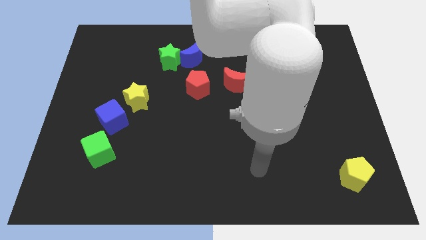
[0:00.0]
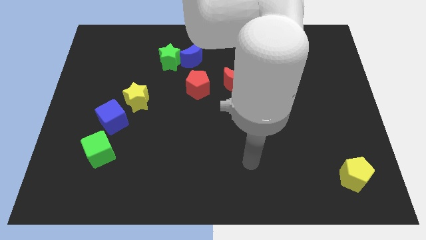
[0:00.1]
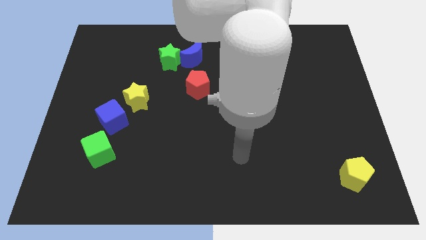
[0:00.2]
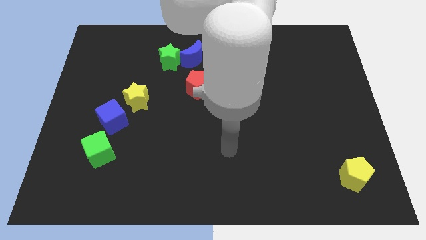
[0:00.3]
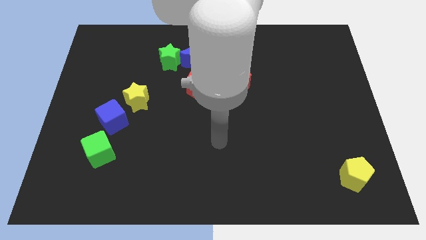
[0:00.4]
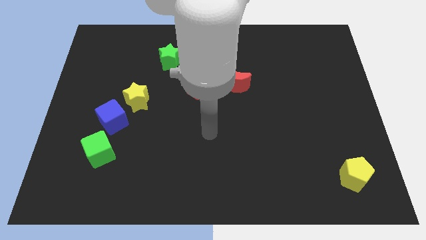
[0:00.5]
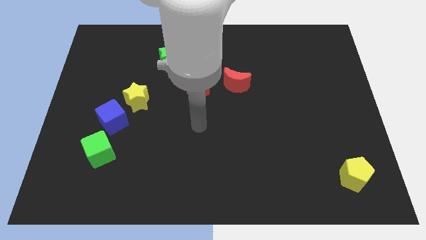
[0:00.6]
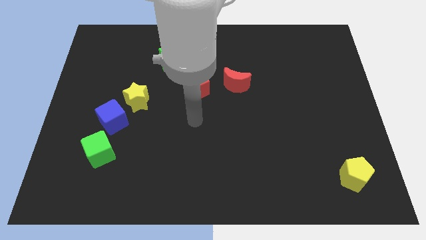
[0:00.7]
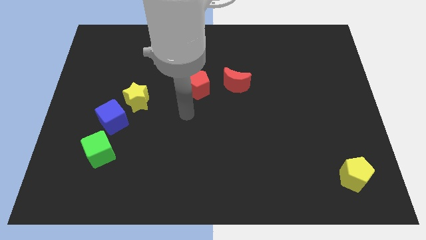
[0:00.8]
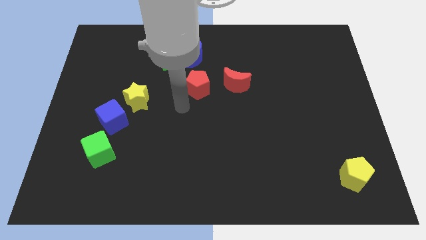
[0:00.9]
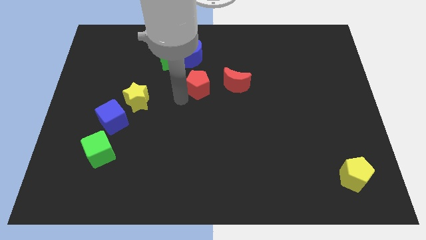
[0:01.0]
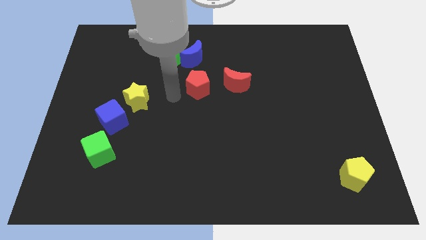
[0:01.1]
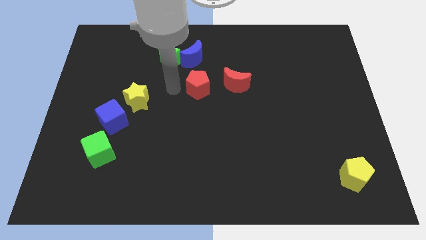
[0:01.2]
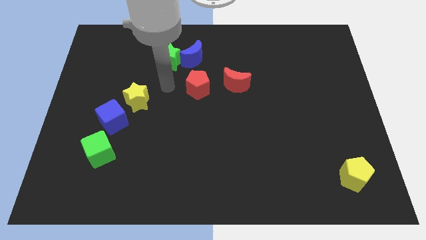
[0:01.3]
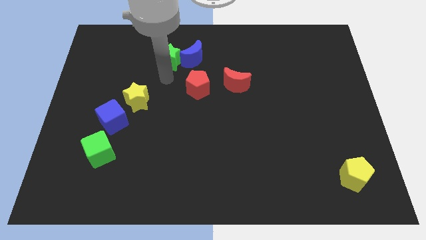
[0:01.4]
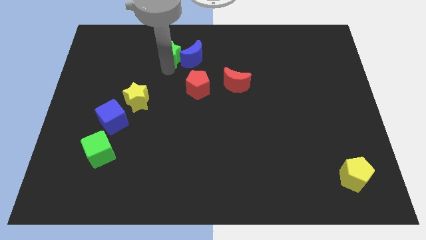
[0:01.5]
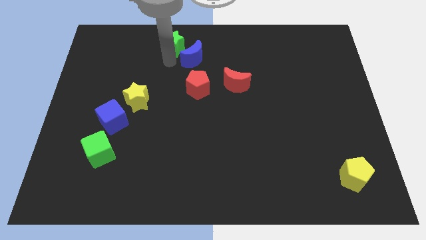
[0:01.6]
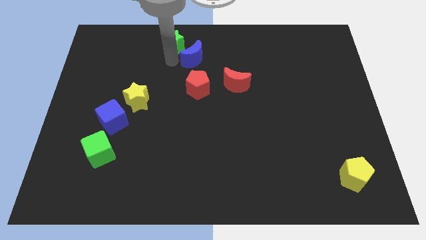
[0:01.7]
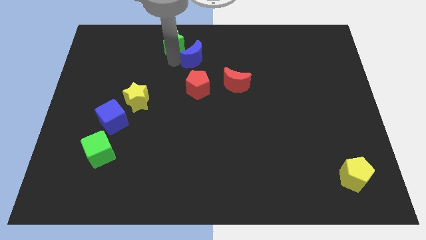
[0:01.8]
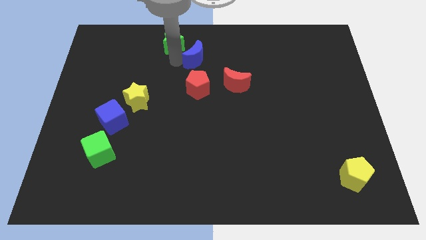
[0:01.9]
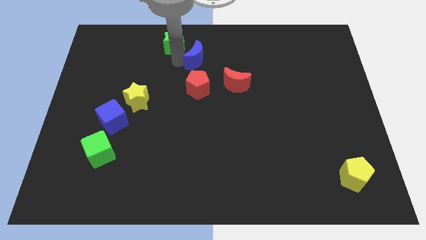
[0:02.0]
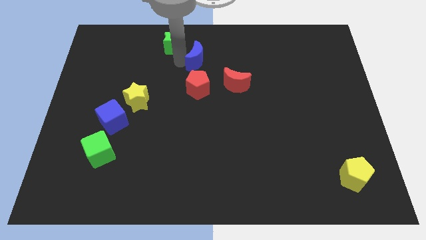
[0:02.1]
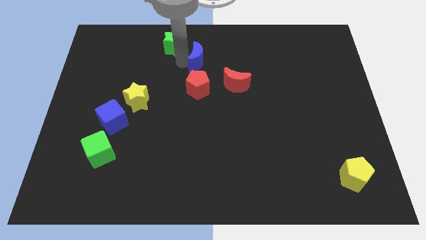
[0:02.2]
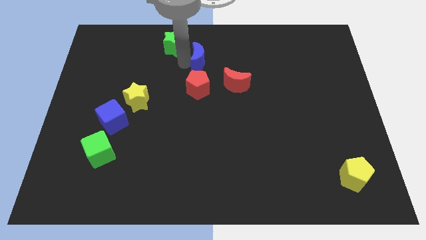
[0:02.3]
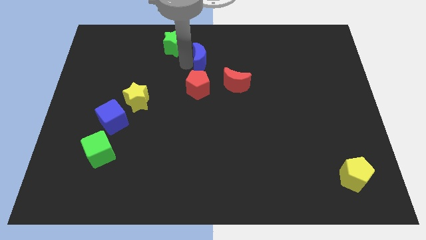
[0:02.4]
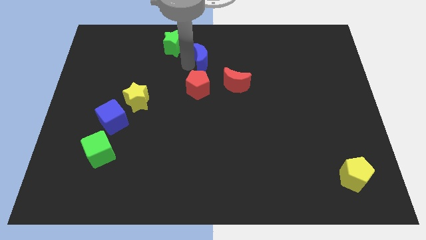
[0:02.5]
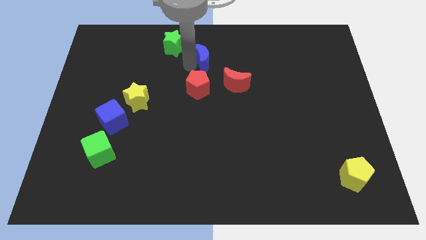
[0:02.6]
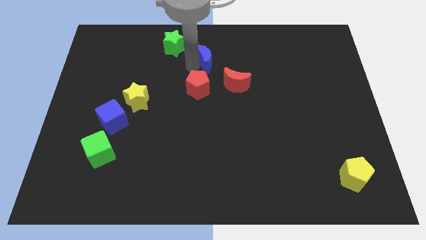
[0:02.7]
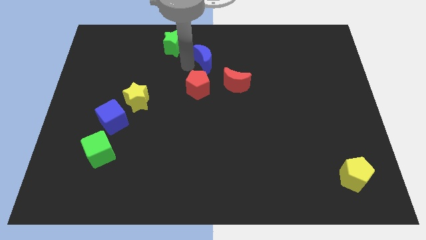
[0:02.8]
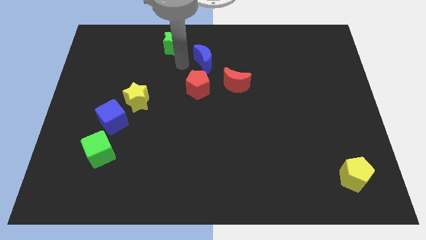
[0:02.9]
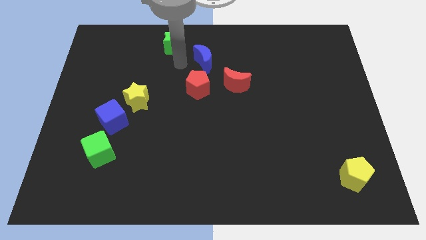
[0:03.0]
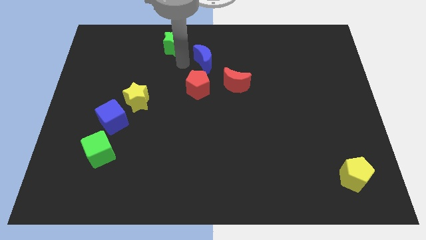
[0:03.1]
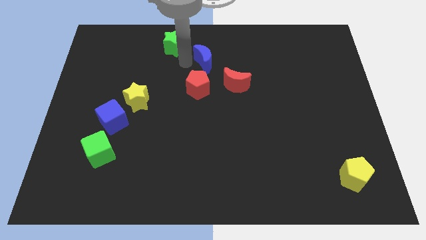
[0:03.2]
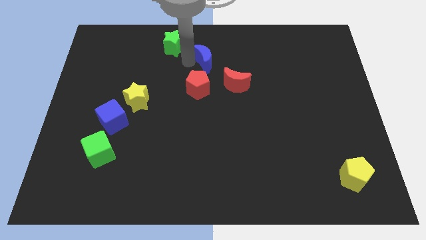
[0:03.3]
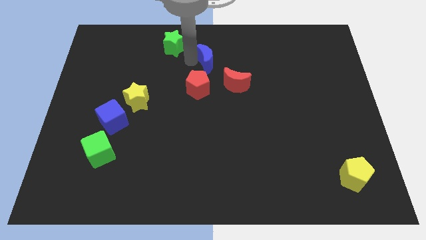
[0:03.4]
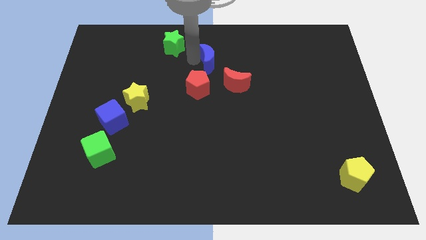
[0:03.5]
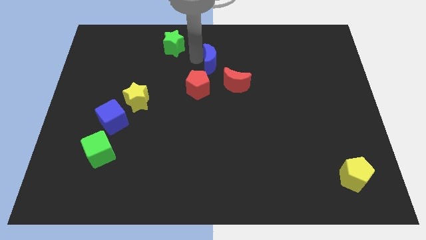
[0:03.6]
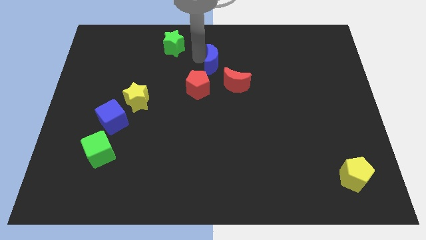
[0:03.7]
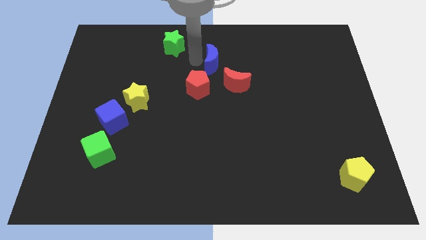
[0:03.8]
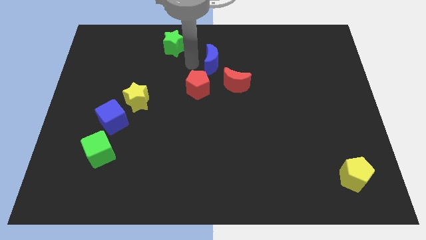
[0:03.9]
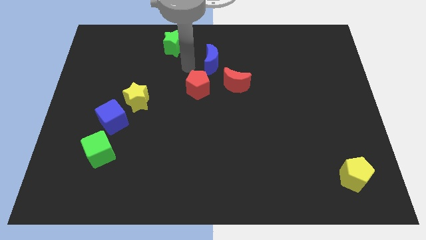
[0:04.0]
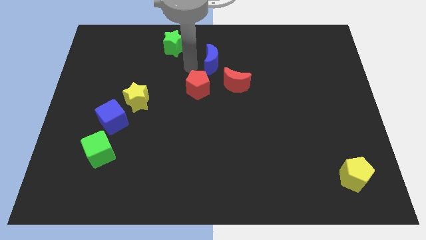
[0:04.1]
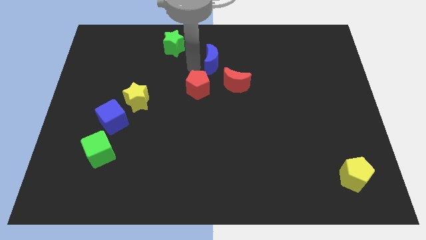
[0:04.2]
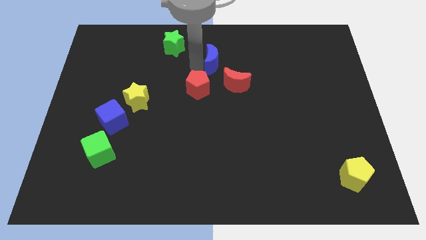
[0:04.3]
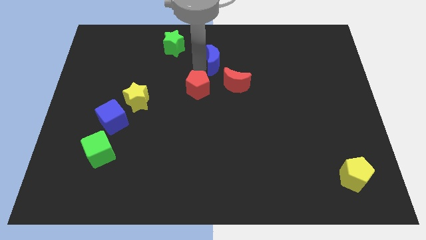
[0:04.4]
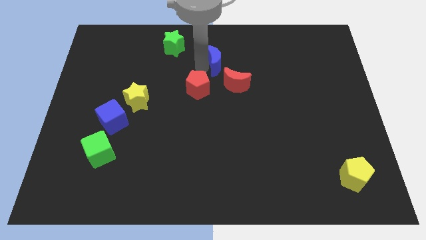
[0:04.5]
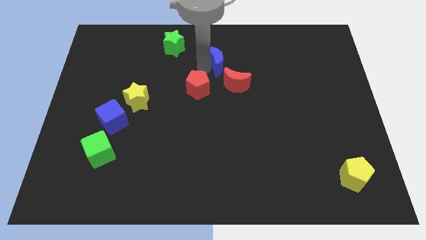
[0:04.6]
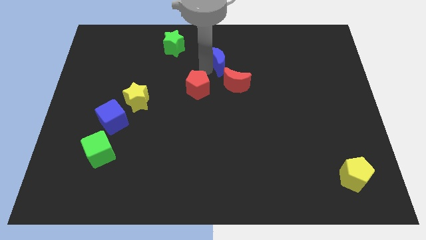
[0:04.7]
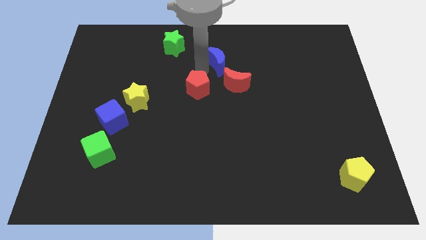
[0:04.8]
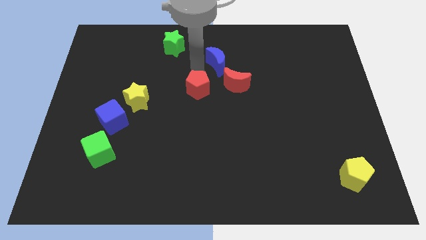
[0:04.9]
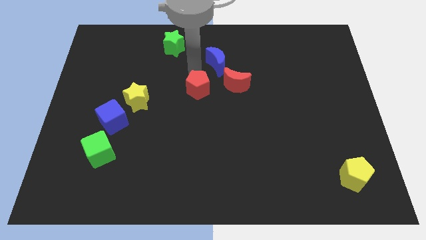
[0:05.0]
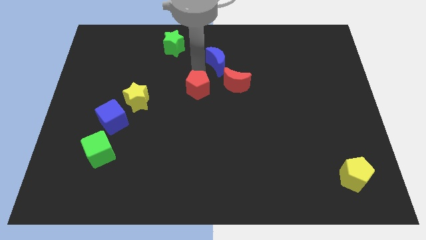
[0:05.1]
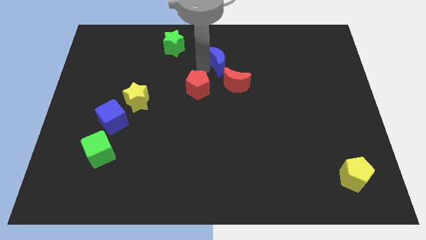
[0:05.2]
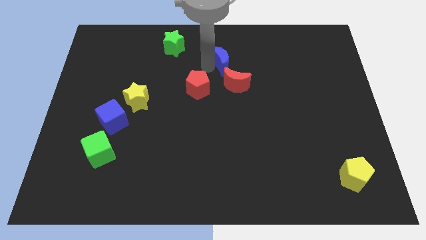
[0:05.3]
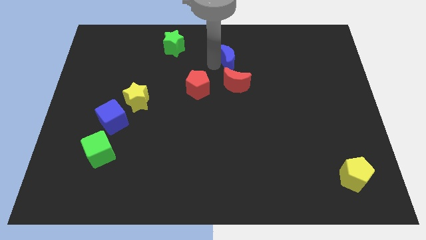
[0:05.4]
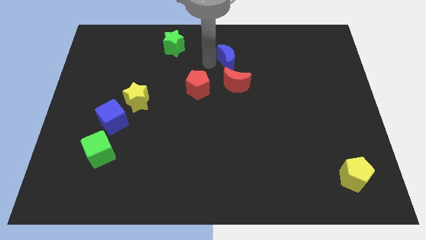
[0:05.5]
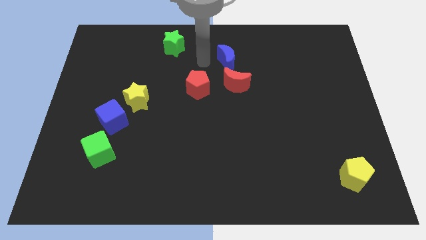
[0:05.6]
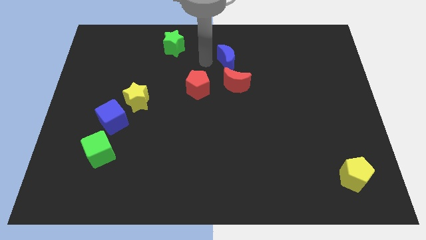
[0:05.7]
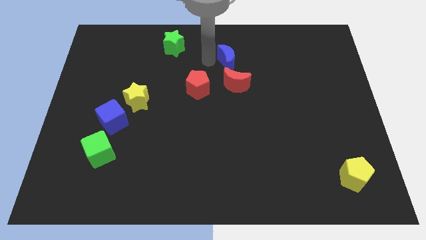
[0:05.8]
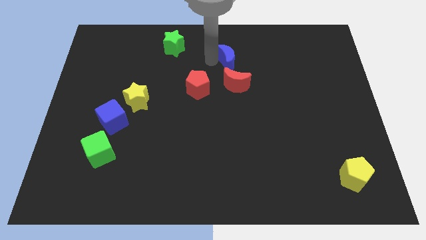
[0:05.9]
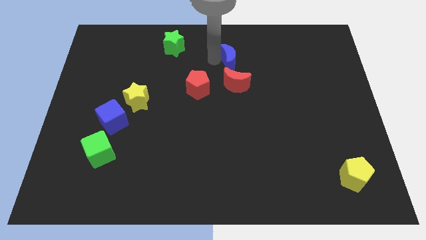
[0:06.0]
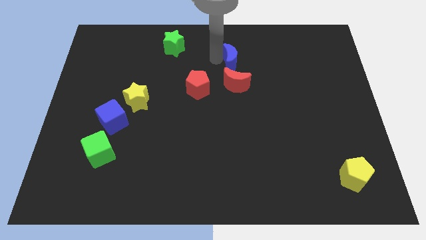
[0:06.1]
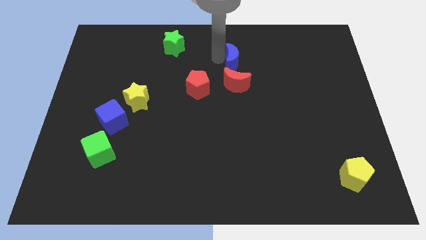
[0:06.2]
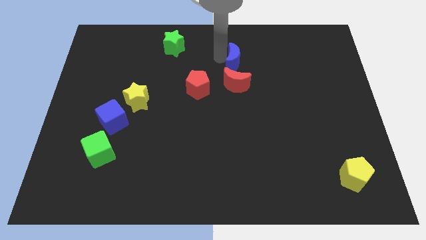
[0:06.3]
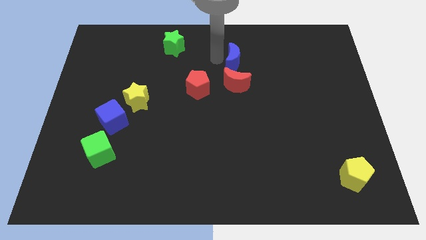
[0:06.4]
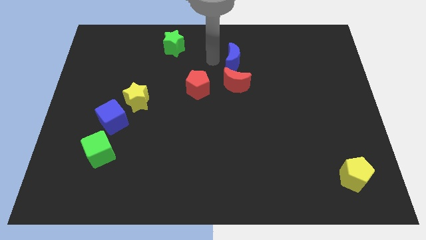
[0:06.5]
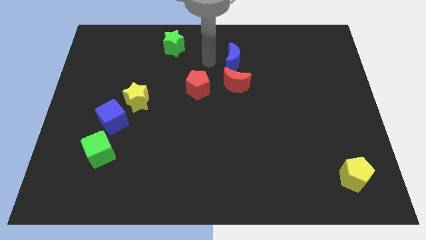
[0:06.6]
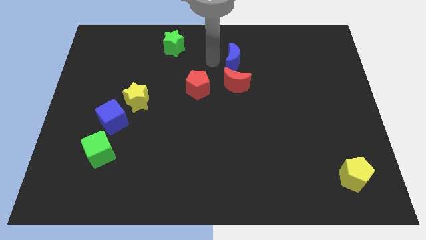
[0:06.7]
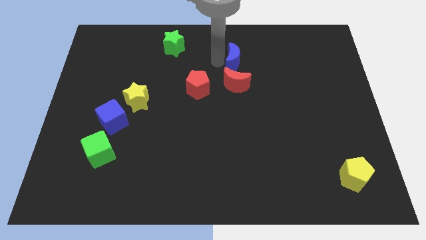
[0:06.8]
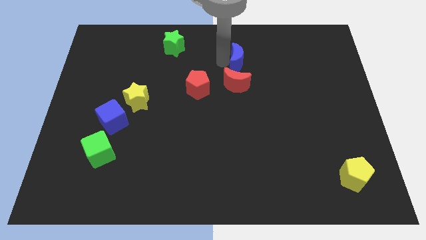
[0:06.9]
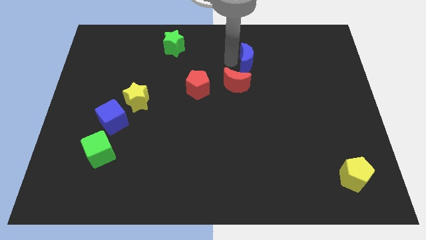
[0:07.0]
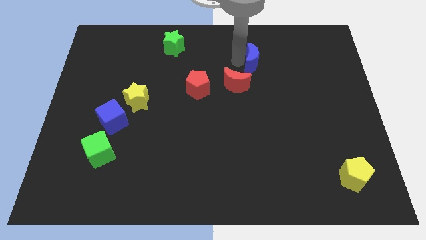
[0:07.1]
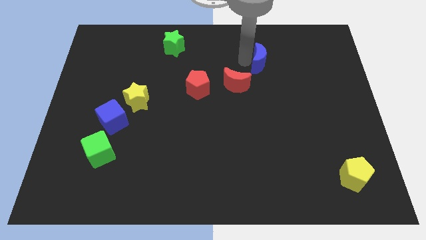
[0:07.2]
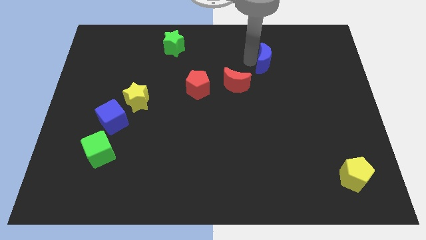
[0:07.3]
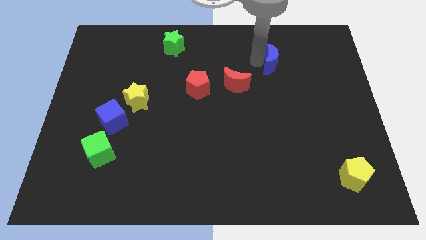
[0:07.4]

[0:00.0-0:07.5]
slide the blue moon right

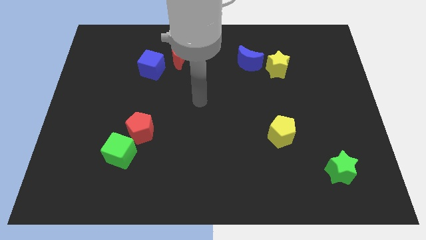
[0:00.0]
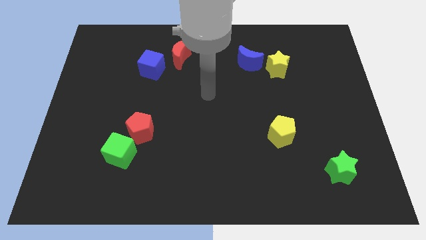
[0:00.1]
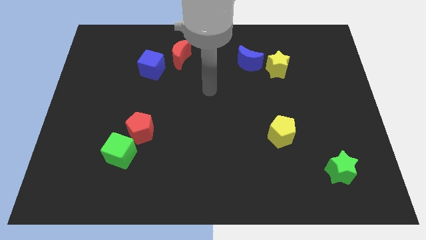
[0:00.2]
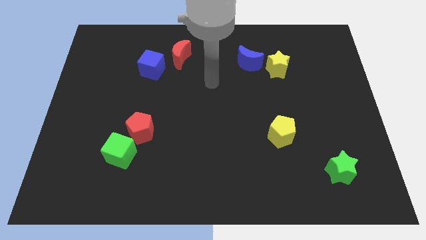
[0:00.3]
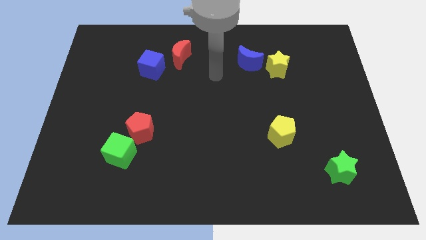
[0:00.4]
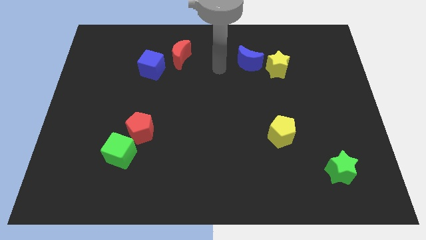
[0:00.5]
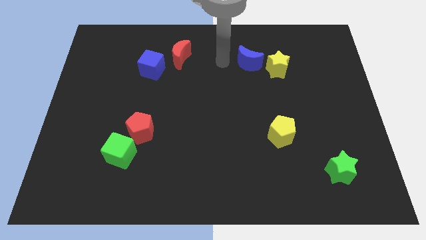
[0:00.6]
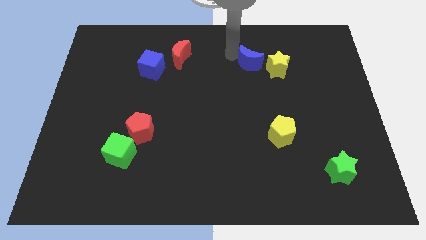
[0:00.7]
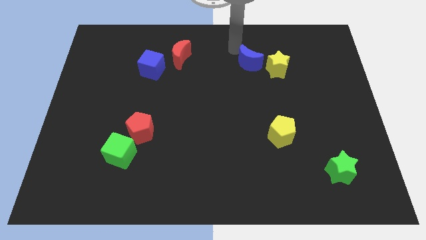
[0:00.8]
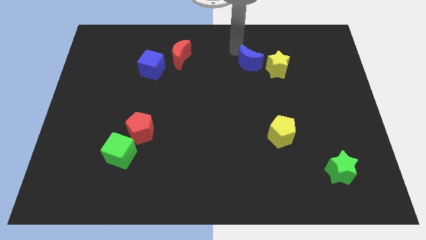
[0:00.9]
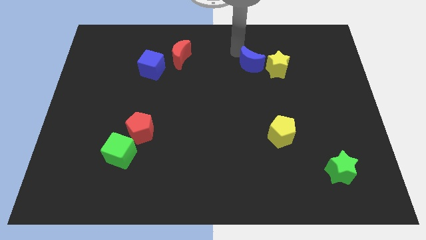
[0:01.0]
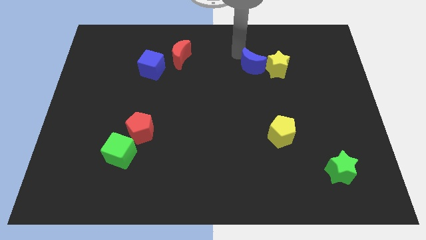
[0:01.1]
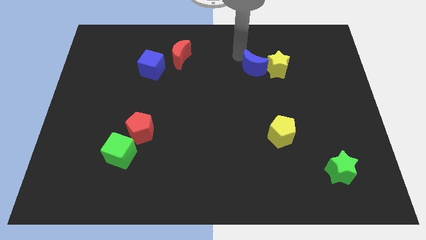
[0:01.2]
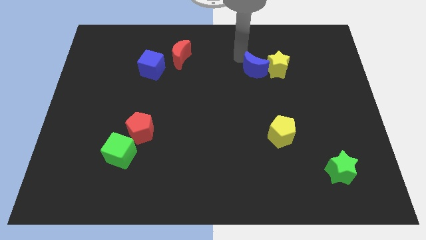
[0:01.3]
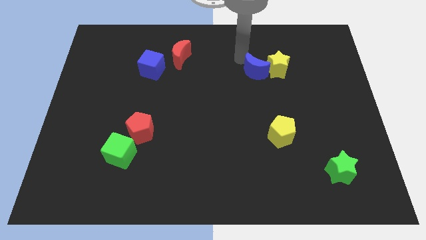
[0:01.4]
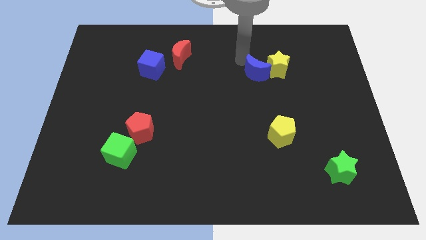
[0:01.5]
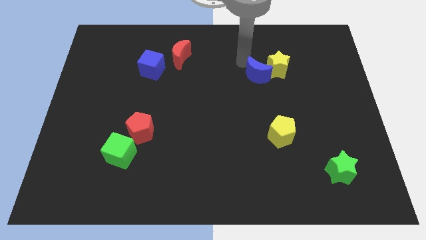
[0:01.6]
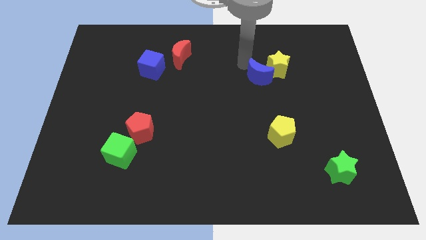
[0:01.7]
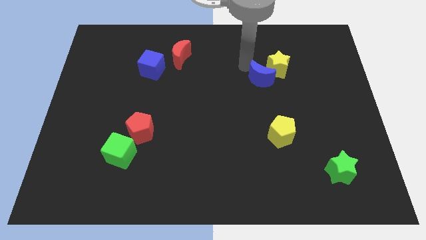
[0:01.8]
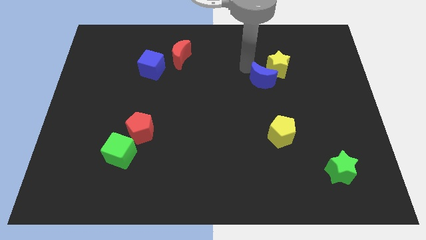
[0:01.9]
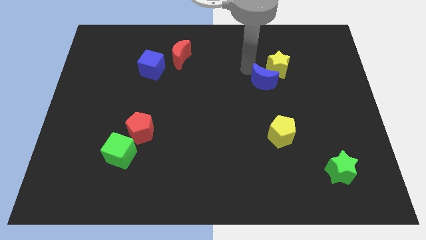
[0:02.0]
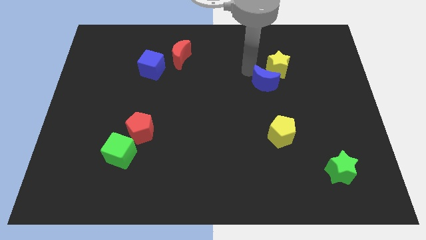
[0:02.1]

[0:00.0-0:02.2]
slide the blue moon slightly down
